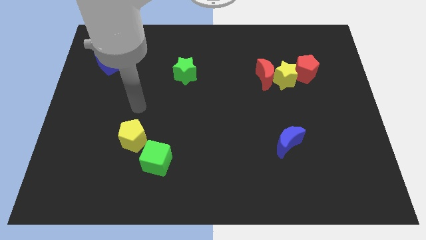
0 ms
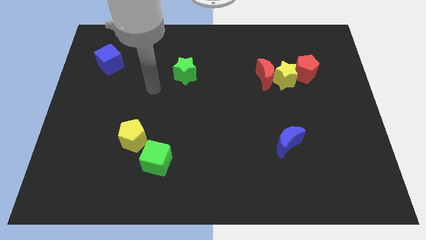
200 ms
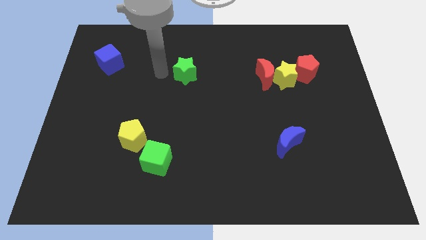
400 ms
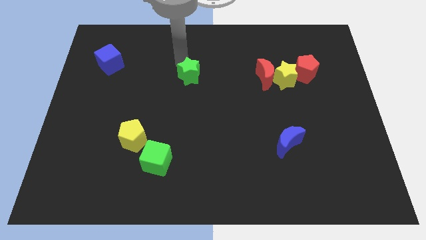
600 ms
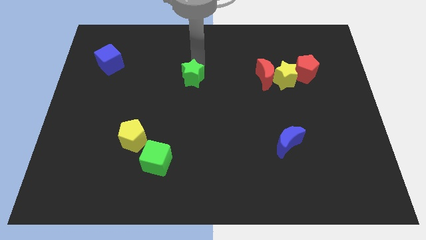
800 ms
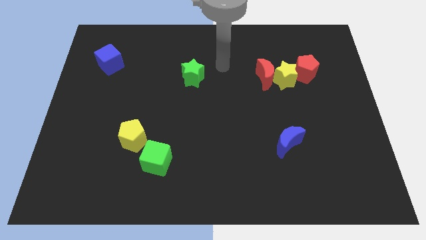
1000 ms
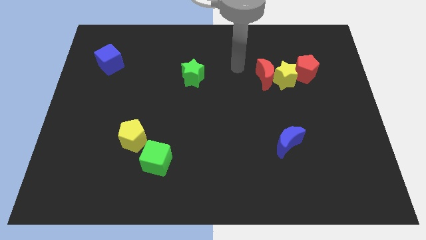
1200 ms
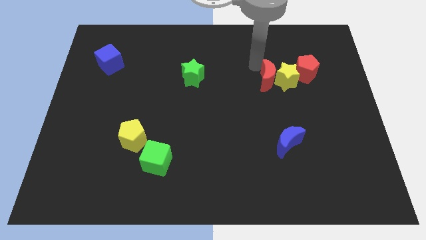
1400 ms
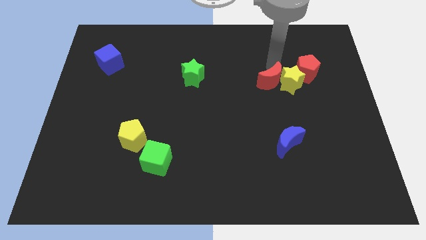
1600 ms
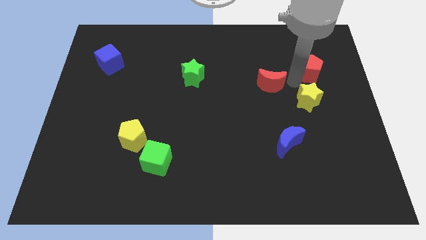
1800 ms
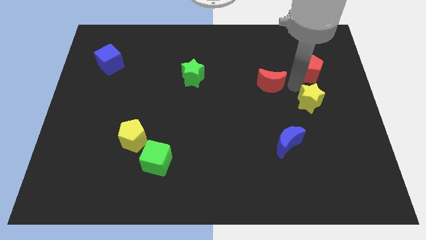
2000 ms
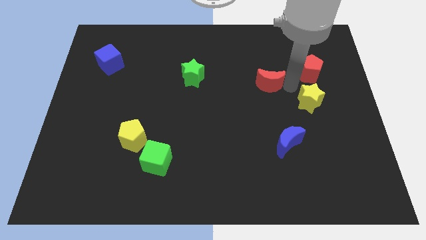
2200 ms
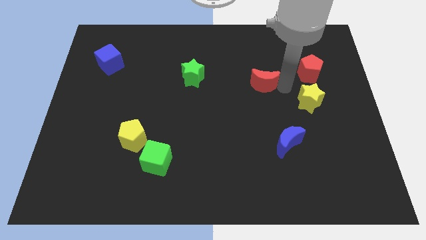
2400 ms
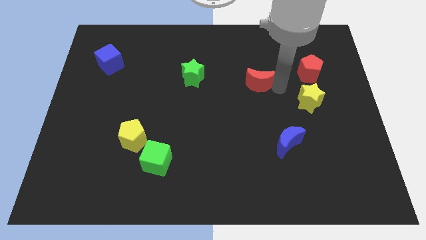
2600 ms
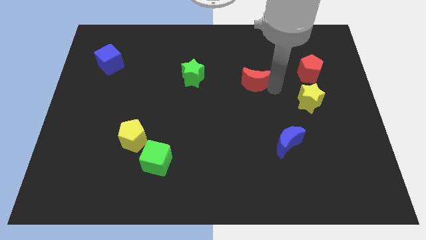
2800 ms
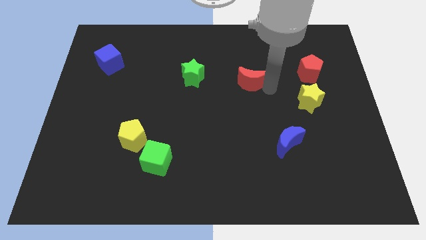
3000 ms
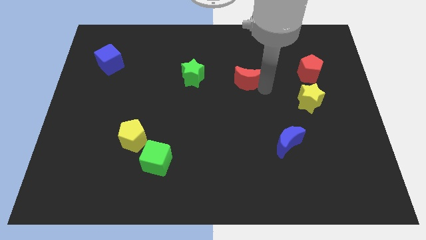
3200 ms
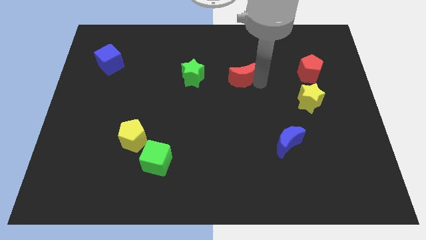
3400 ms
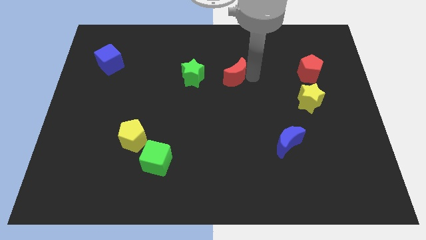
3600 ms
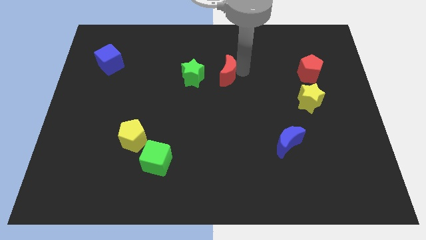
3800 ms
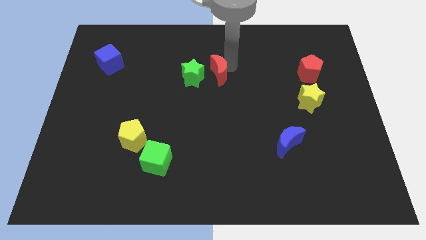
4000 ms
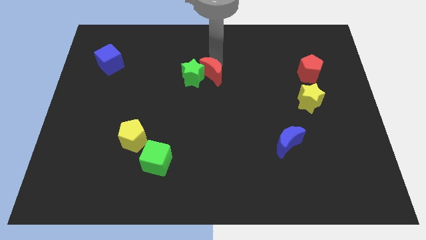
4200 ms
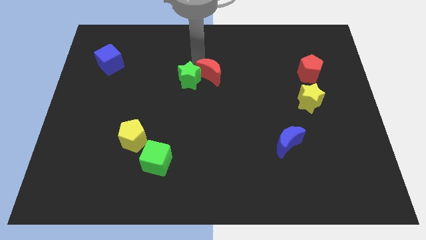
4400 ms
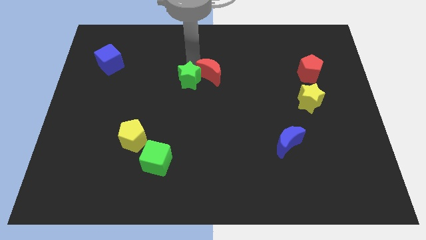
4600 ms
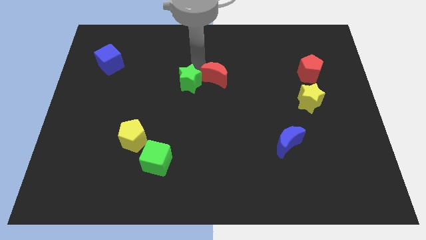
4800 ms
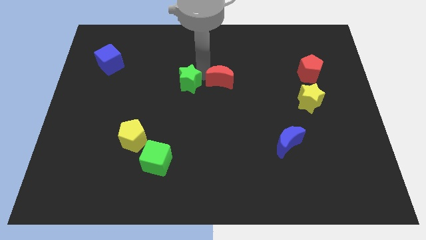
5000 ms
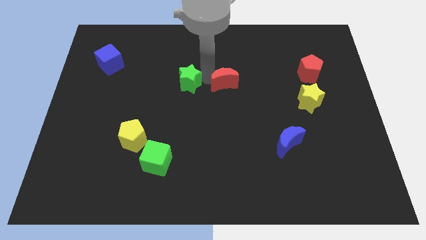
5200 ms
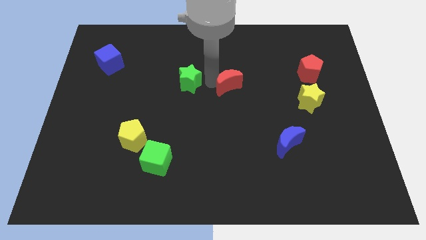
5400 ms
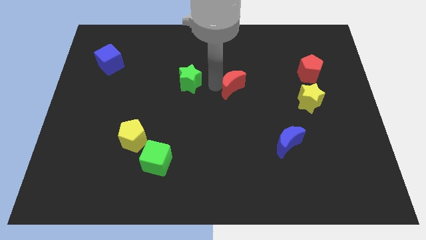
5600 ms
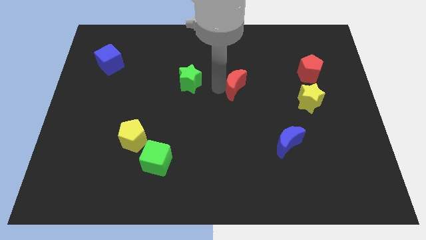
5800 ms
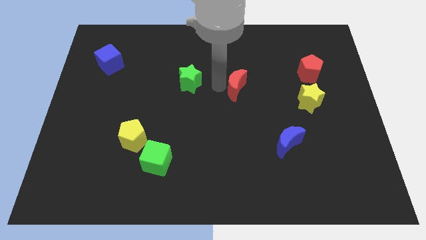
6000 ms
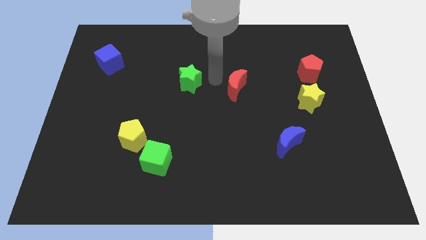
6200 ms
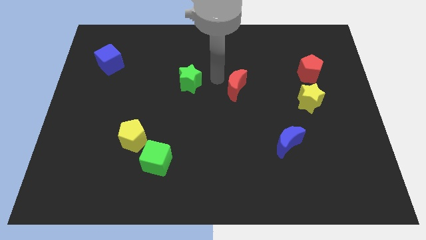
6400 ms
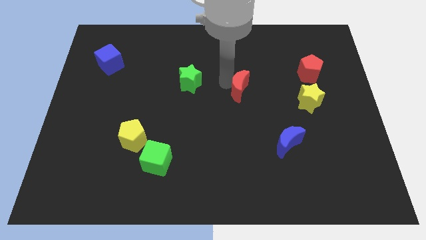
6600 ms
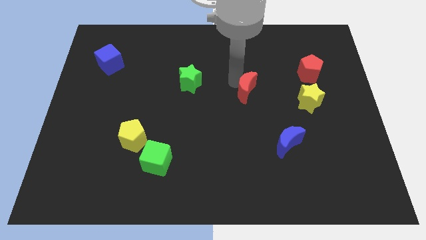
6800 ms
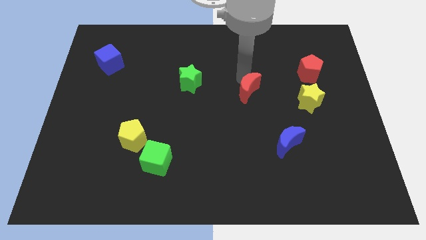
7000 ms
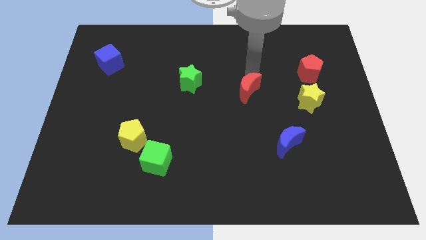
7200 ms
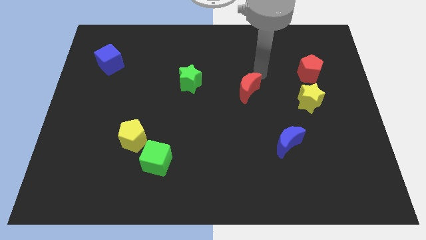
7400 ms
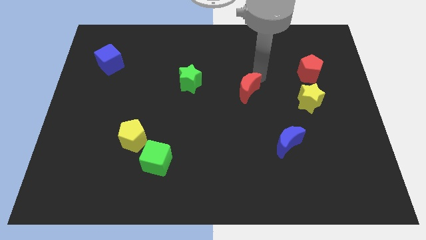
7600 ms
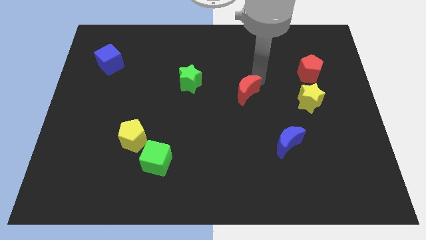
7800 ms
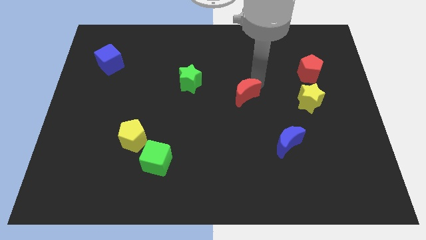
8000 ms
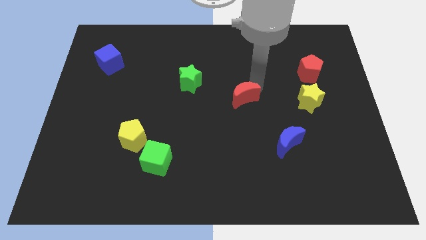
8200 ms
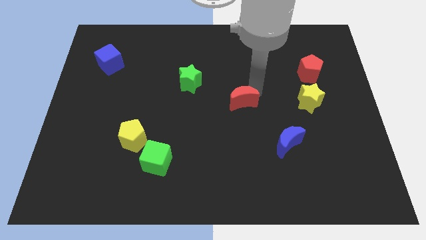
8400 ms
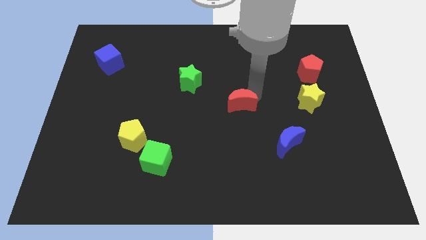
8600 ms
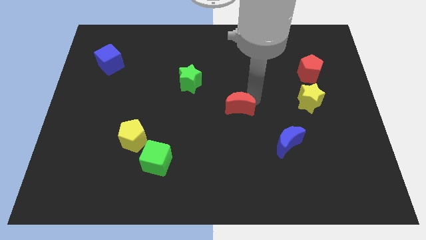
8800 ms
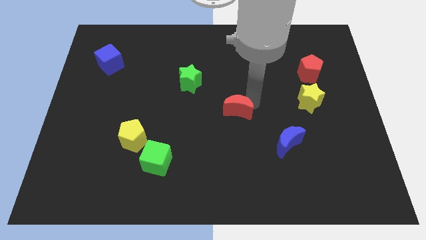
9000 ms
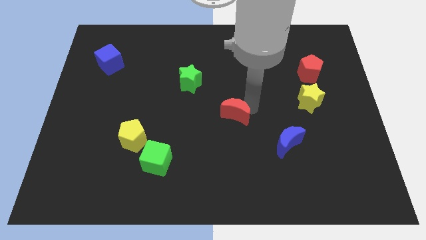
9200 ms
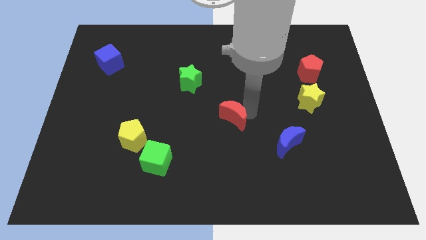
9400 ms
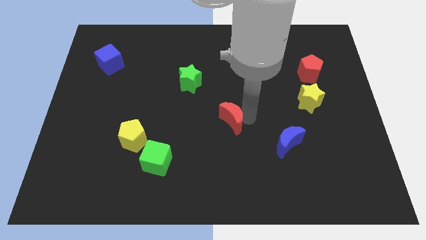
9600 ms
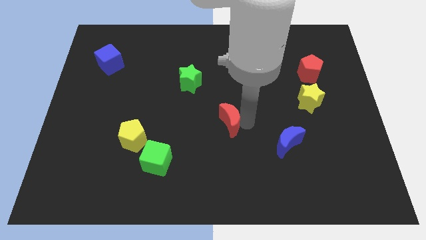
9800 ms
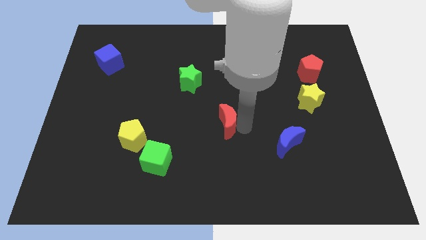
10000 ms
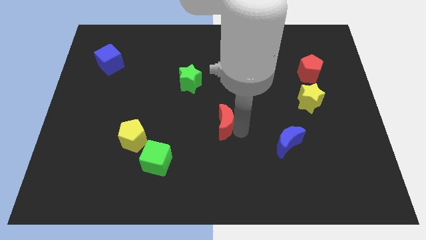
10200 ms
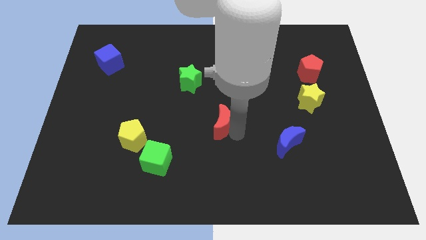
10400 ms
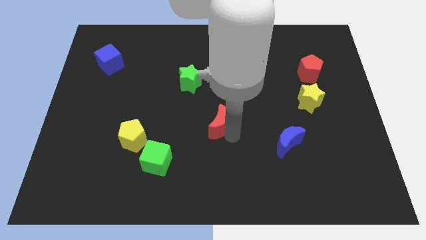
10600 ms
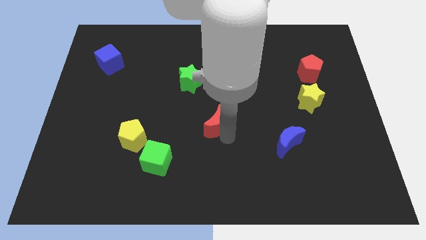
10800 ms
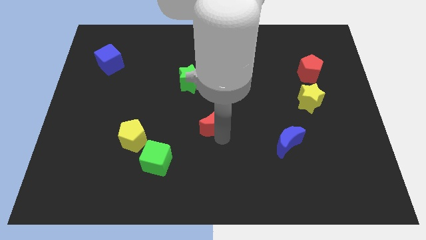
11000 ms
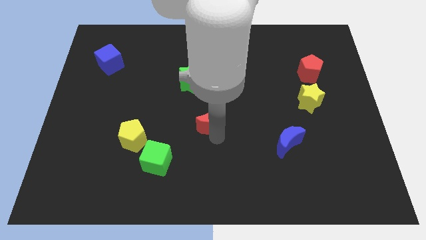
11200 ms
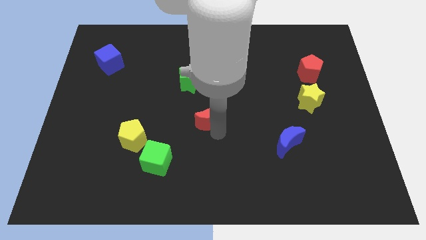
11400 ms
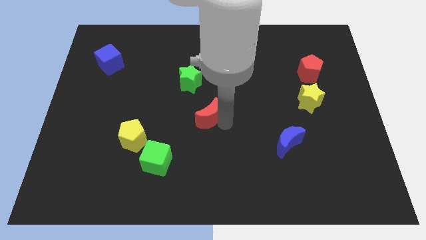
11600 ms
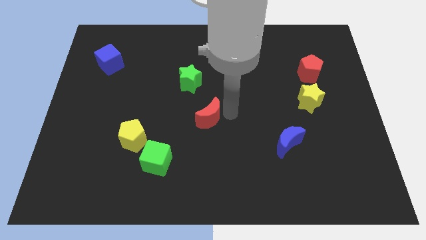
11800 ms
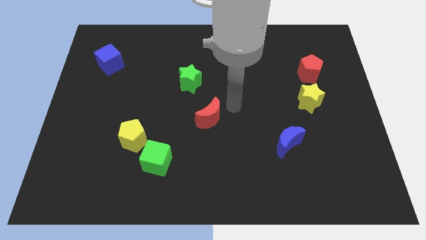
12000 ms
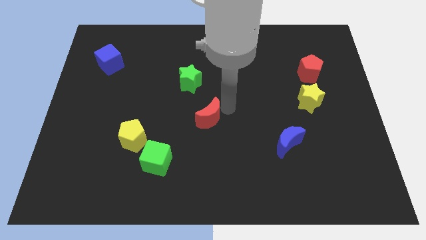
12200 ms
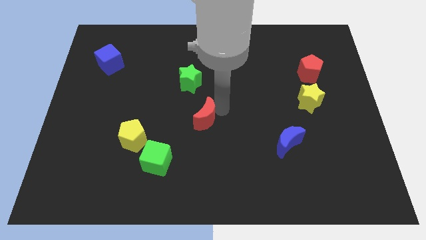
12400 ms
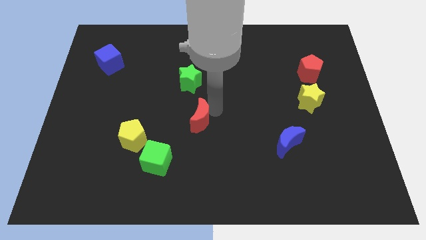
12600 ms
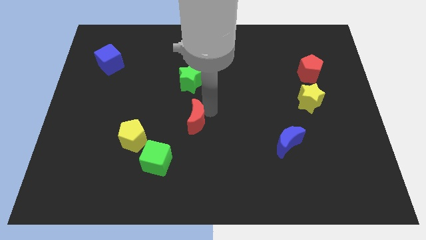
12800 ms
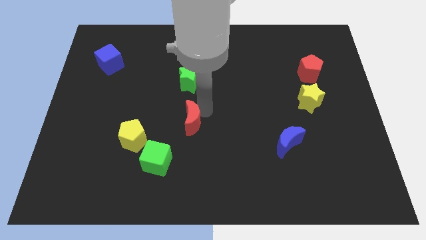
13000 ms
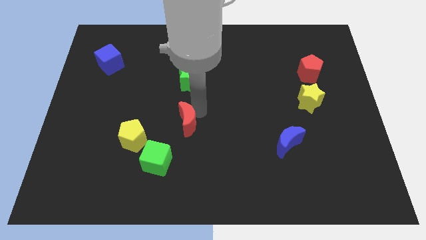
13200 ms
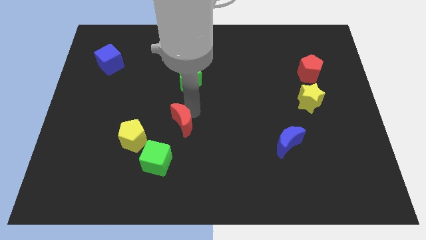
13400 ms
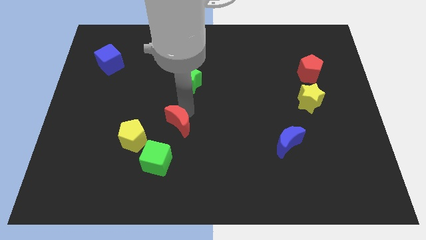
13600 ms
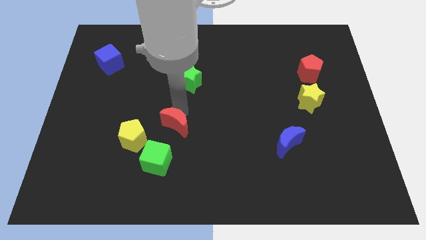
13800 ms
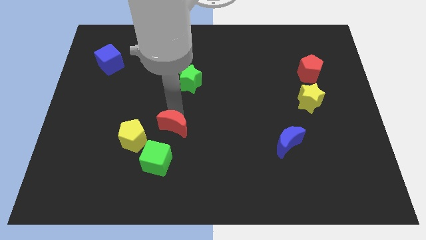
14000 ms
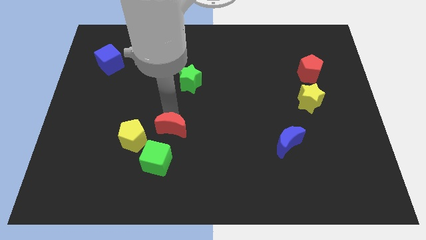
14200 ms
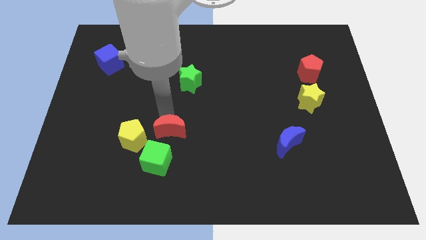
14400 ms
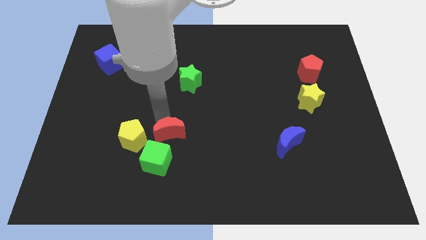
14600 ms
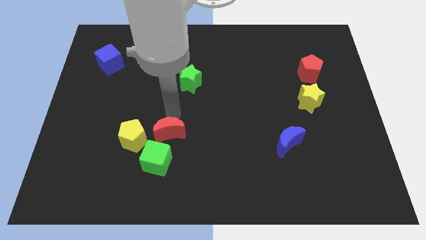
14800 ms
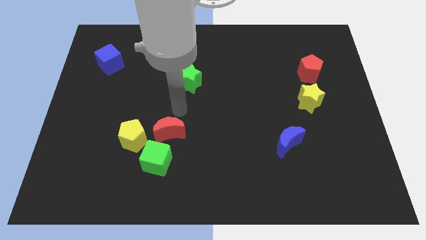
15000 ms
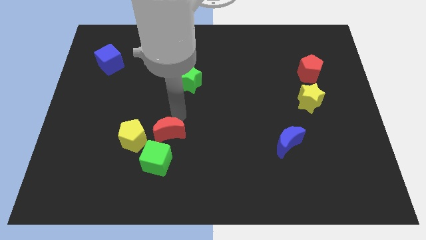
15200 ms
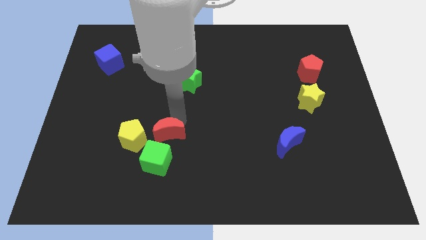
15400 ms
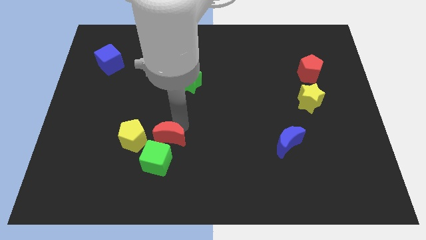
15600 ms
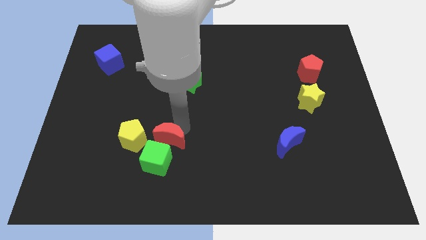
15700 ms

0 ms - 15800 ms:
move the red moon close to the green cube
